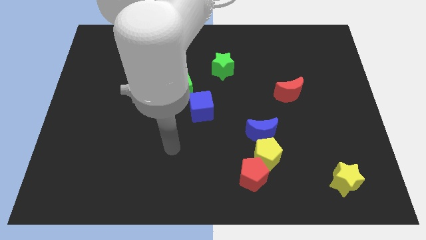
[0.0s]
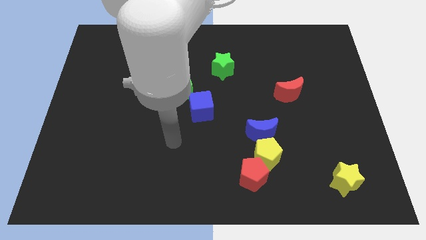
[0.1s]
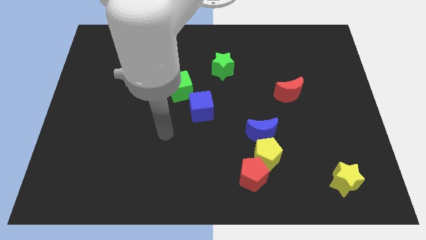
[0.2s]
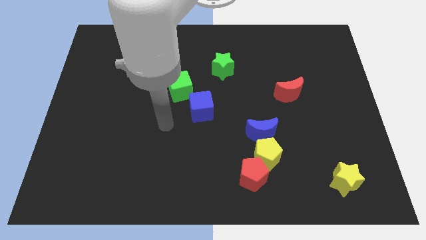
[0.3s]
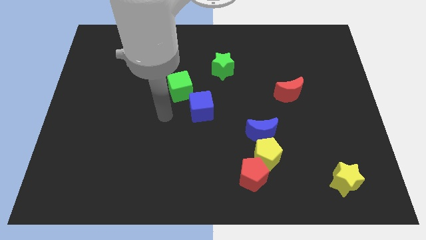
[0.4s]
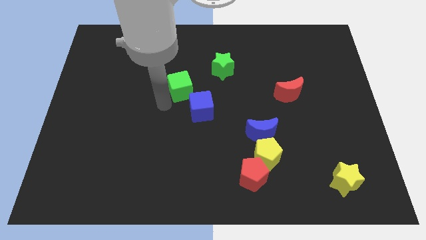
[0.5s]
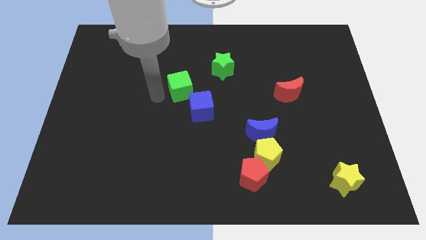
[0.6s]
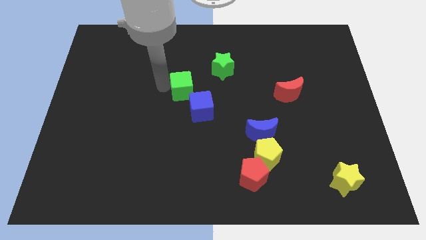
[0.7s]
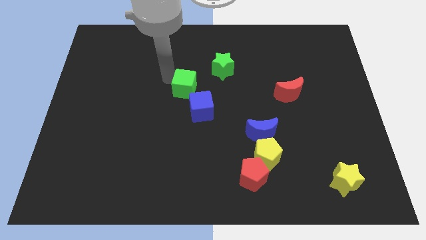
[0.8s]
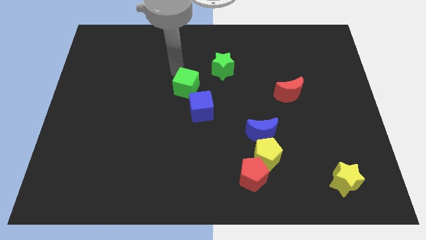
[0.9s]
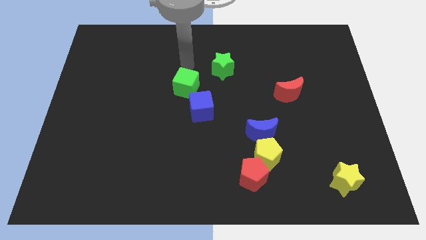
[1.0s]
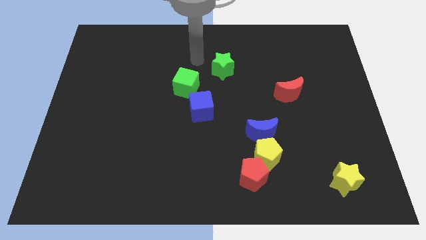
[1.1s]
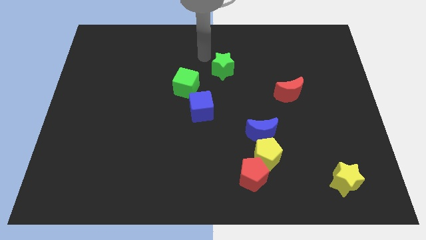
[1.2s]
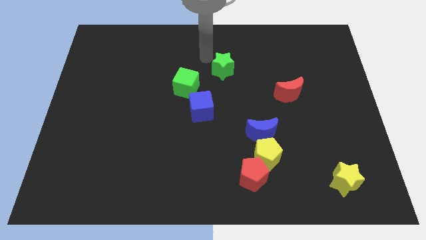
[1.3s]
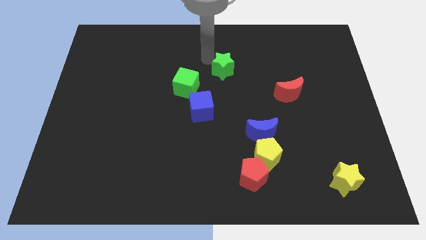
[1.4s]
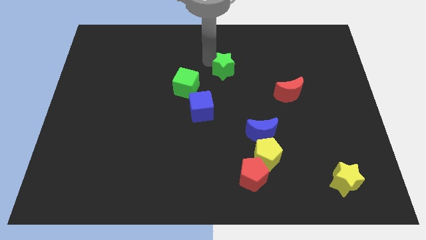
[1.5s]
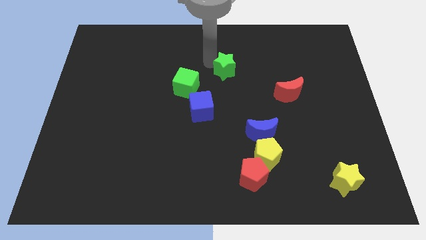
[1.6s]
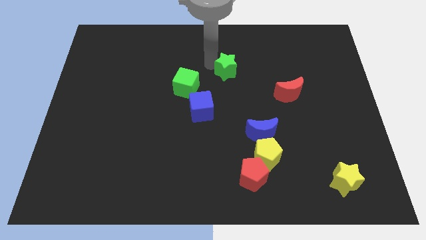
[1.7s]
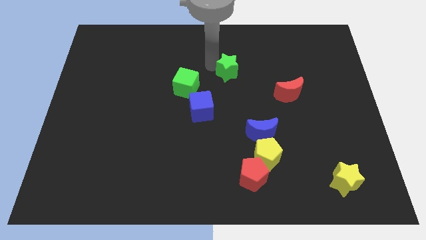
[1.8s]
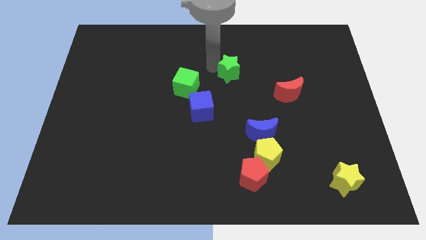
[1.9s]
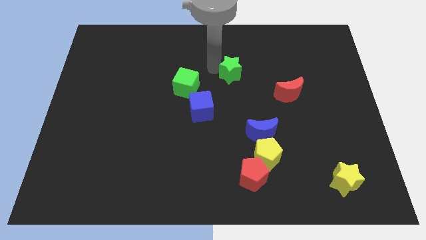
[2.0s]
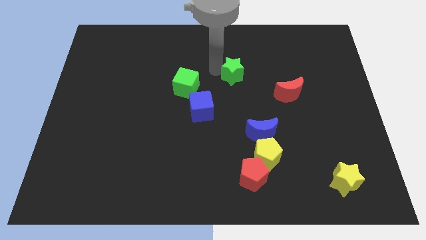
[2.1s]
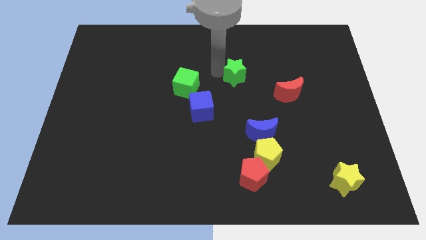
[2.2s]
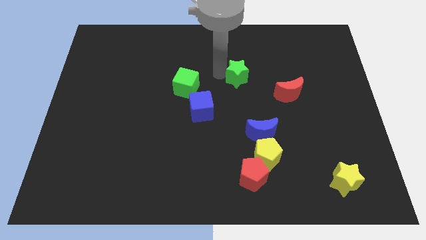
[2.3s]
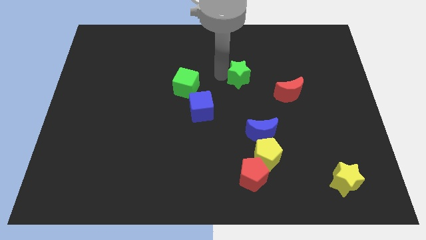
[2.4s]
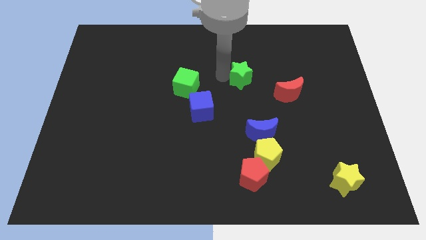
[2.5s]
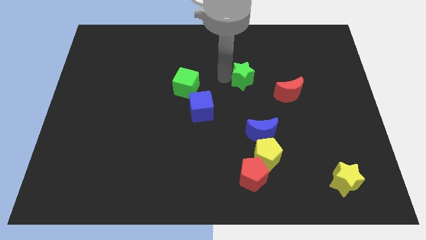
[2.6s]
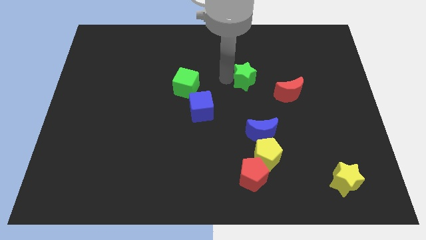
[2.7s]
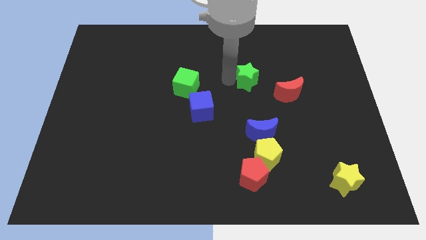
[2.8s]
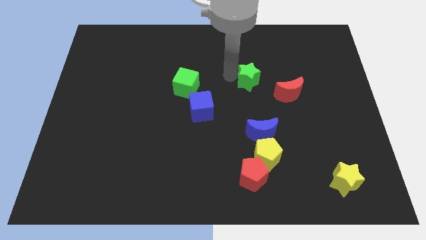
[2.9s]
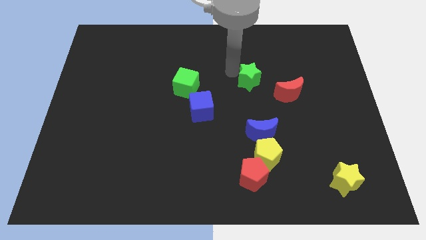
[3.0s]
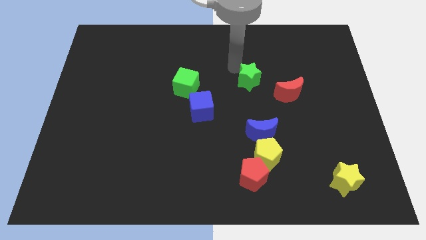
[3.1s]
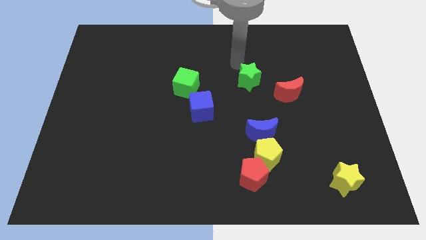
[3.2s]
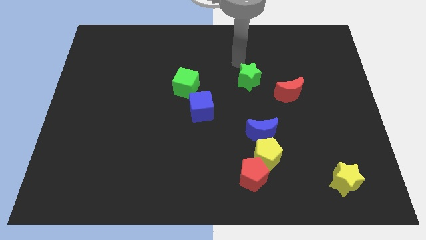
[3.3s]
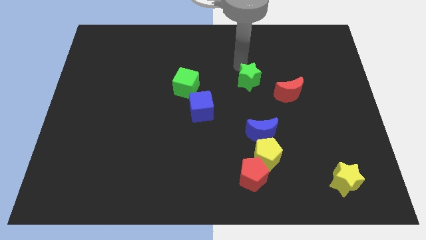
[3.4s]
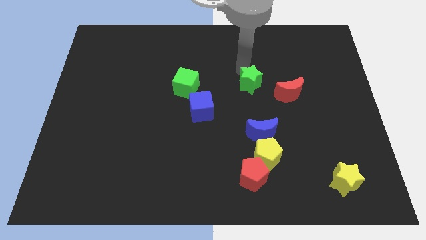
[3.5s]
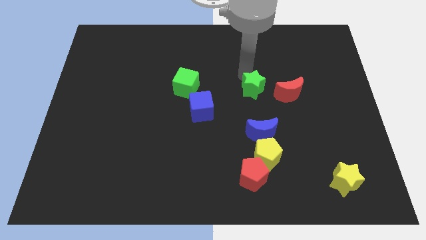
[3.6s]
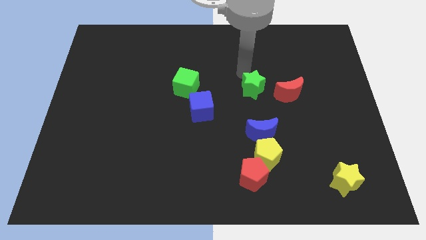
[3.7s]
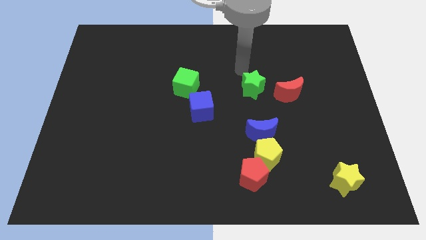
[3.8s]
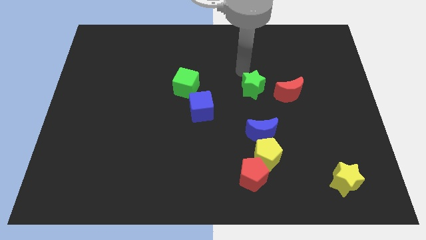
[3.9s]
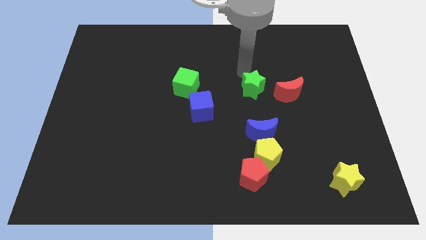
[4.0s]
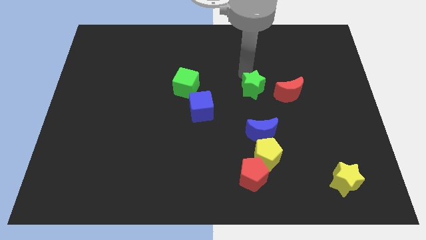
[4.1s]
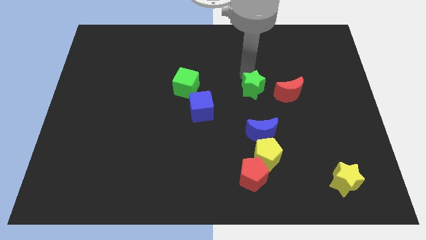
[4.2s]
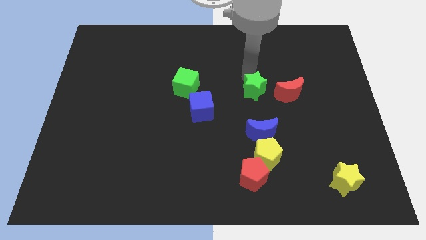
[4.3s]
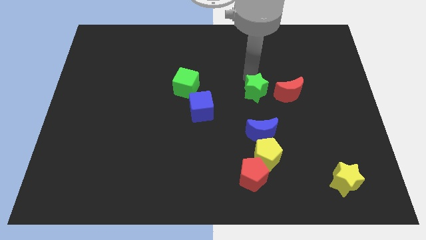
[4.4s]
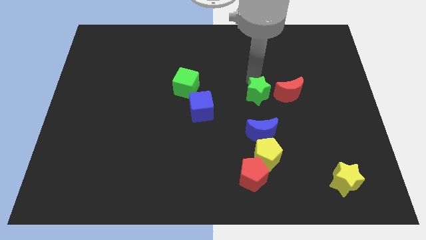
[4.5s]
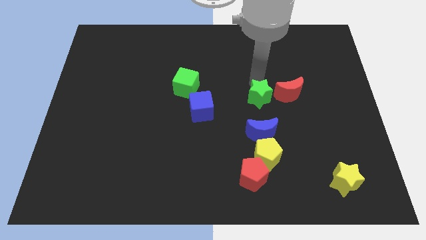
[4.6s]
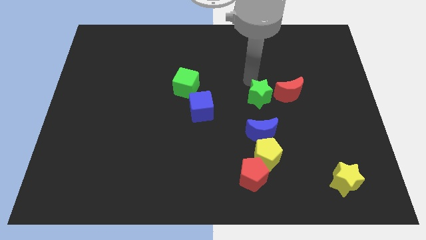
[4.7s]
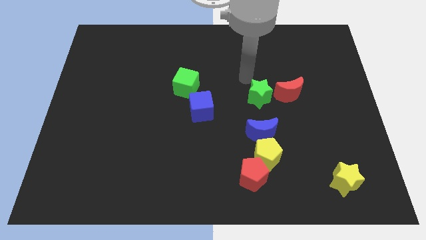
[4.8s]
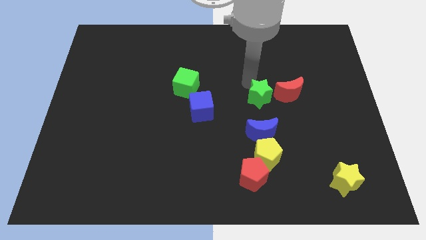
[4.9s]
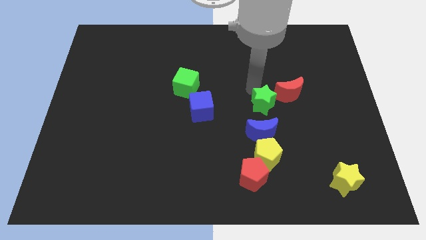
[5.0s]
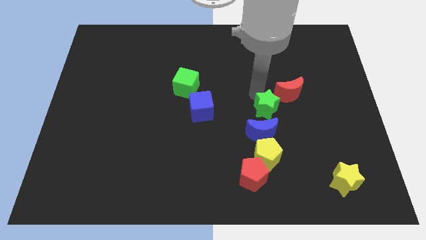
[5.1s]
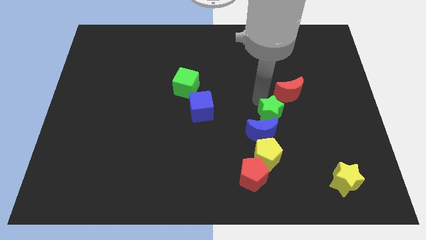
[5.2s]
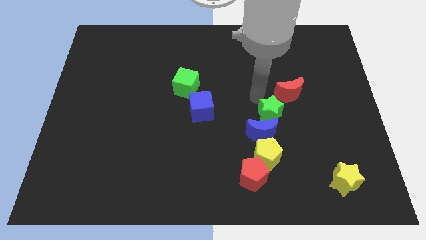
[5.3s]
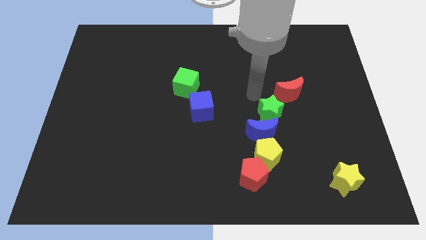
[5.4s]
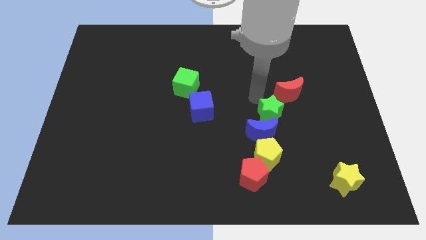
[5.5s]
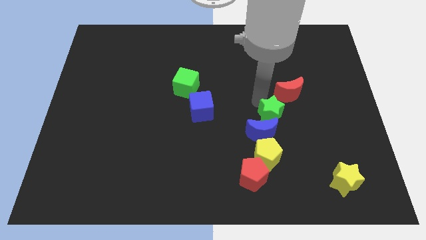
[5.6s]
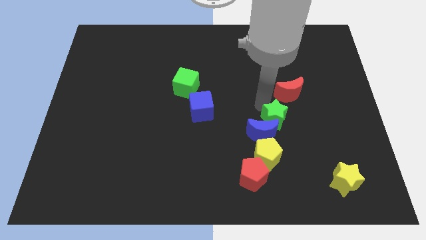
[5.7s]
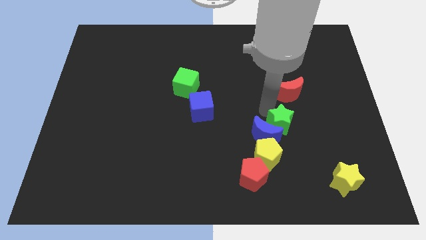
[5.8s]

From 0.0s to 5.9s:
slide the green star to the top right of the yellow pentagon
